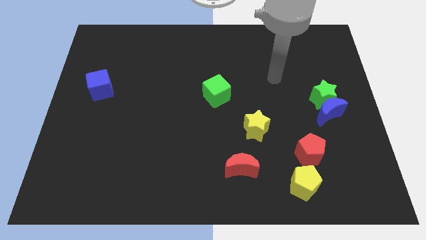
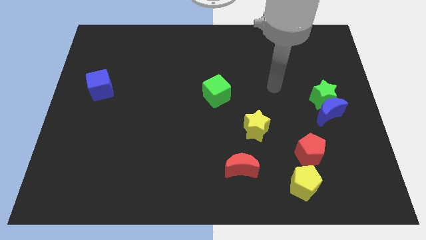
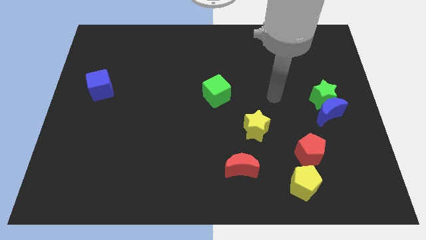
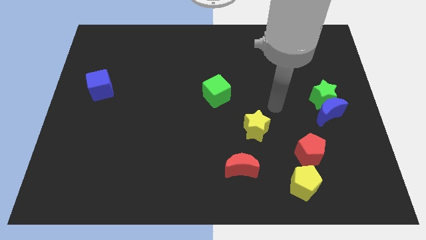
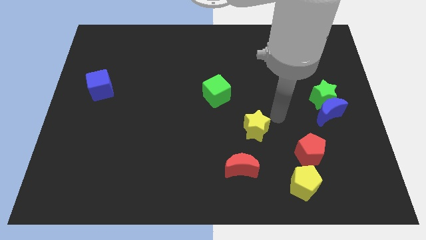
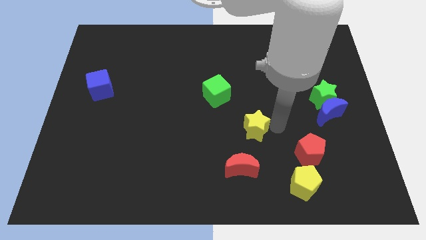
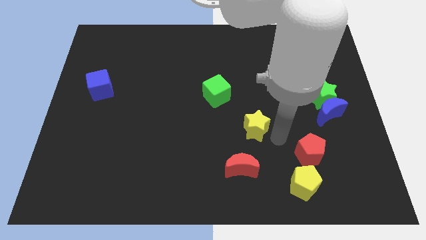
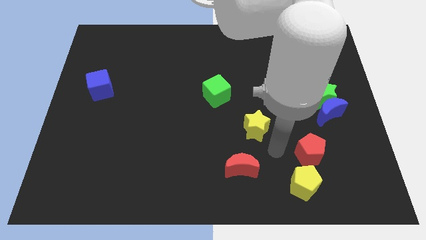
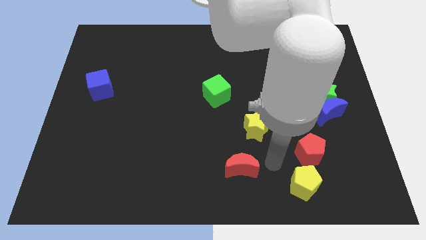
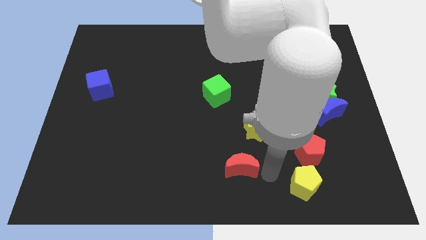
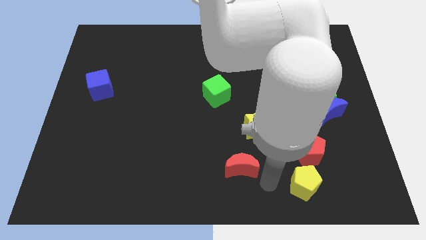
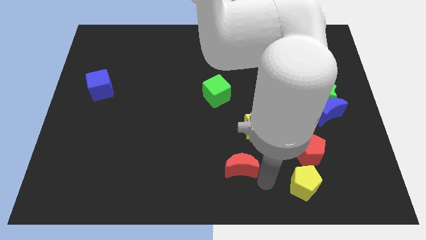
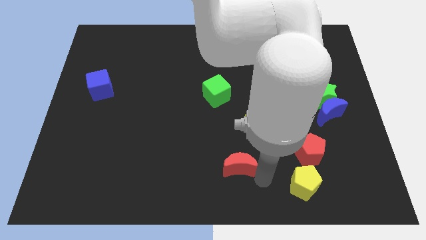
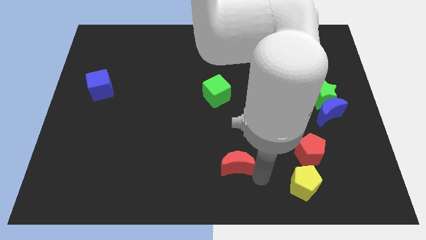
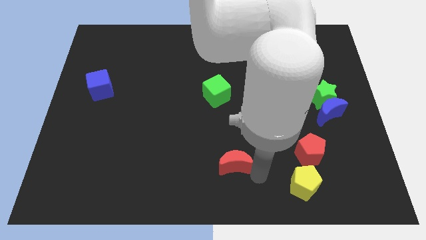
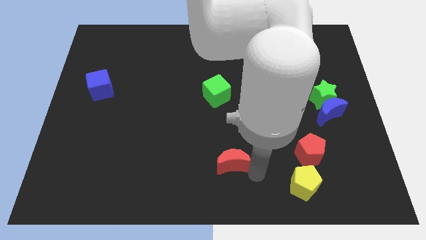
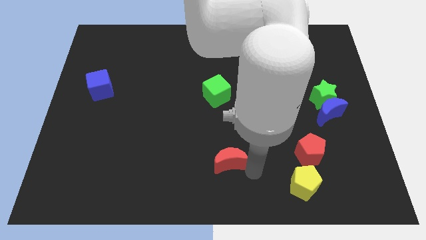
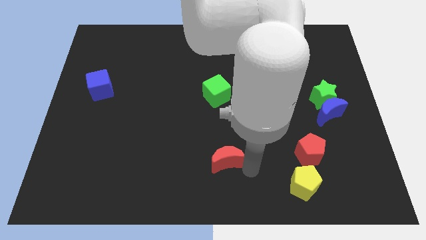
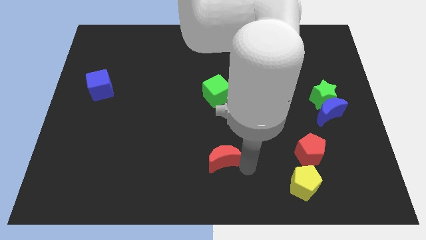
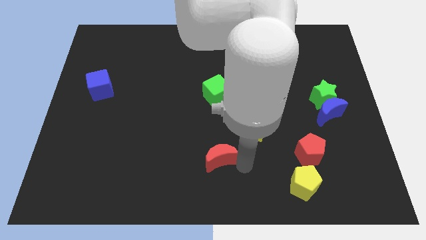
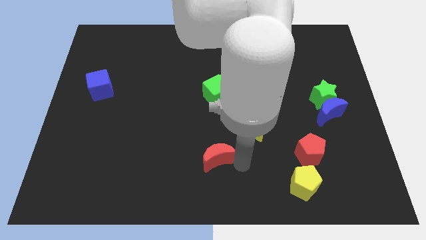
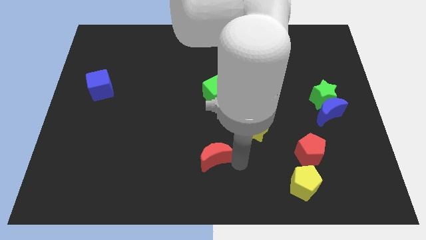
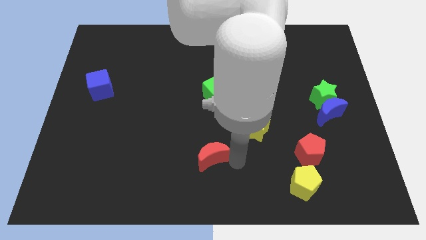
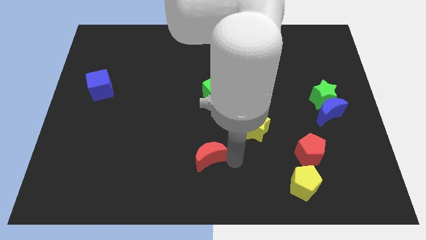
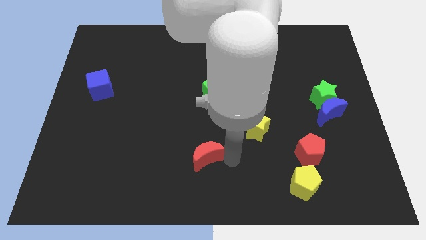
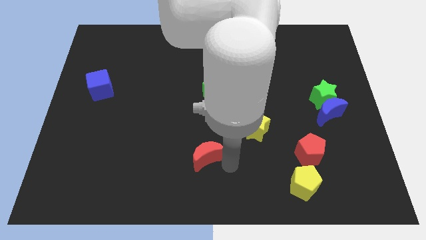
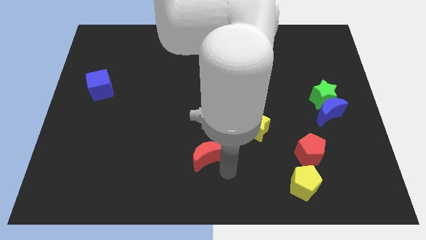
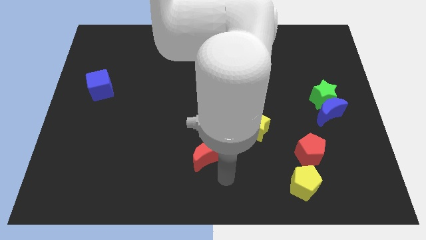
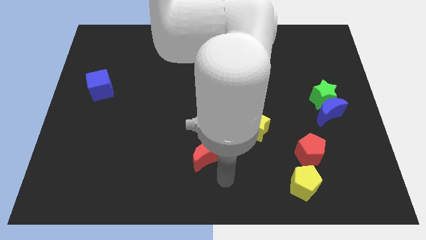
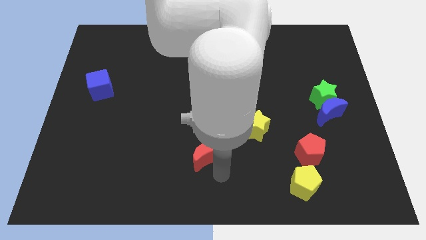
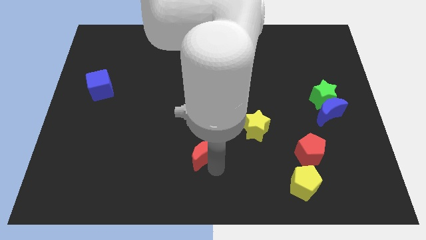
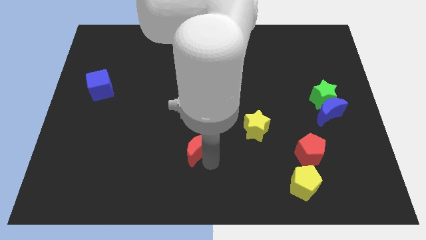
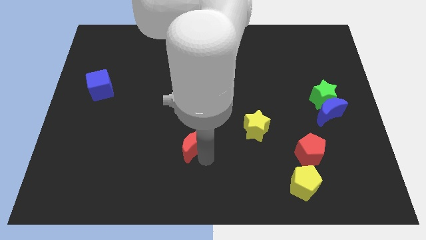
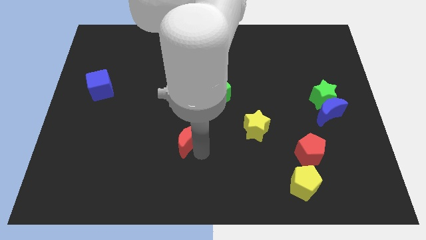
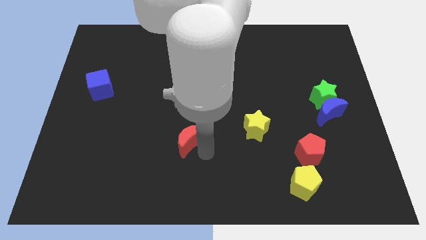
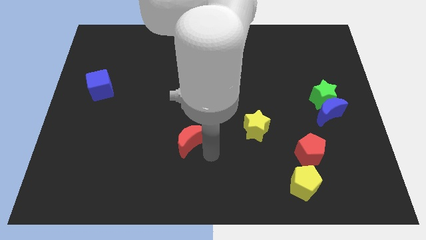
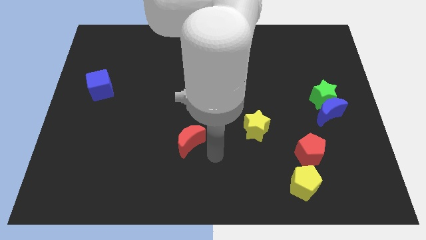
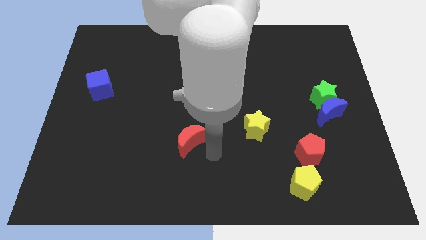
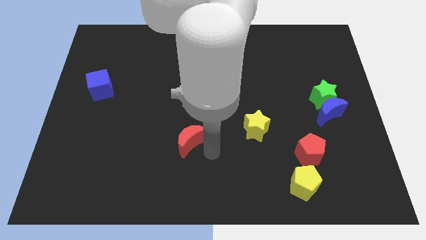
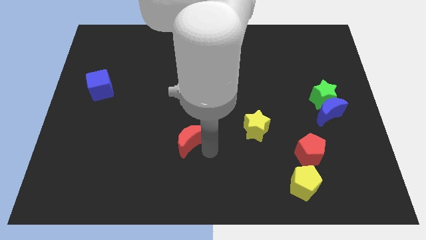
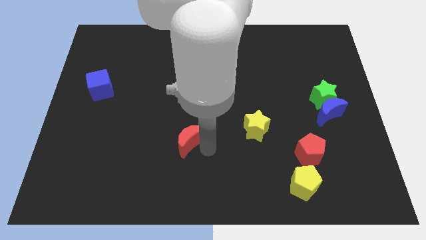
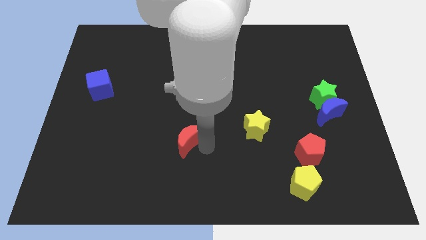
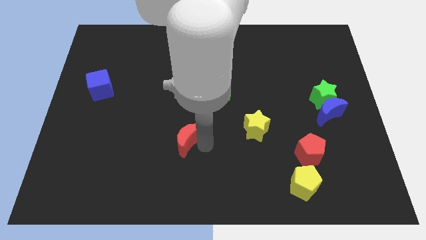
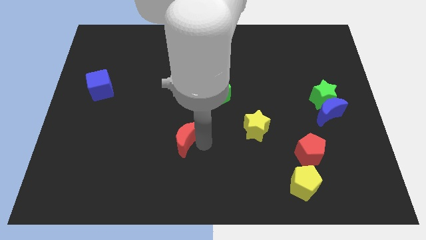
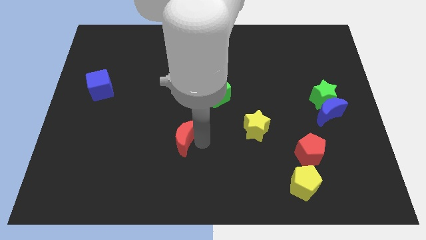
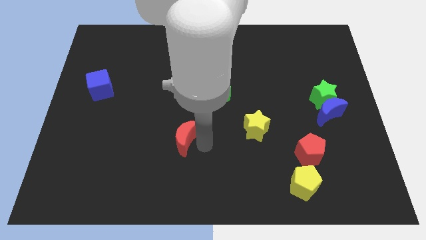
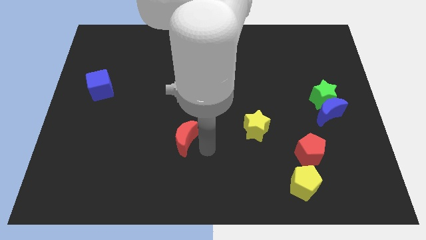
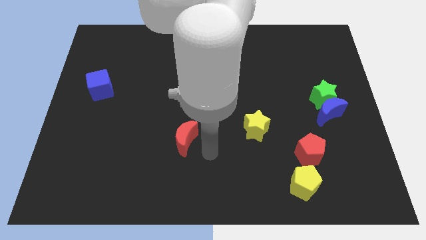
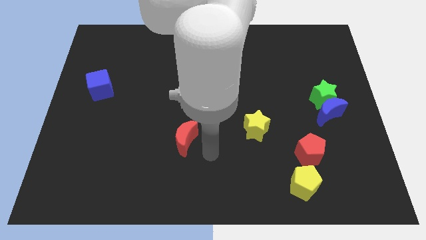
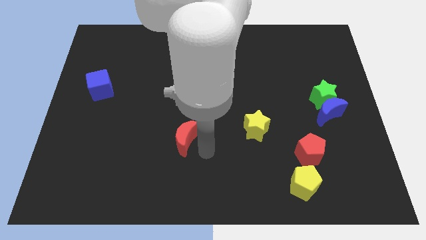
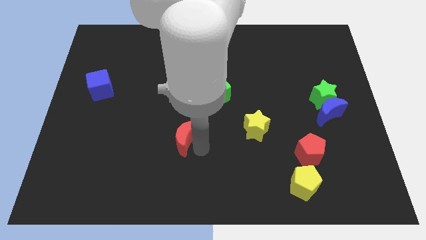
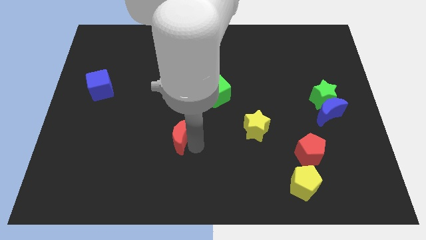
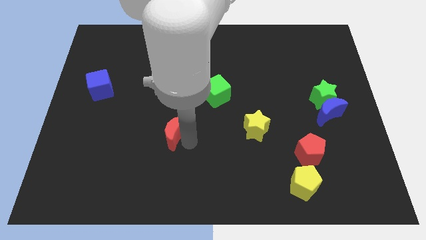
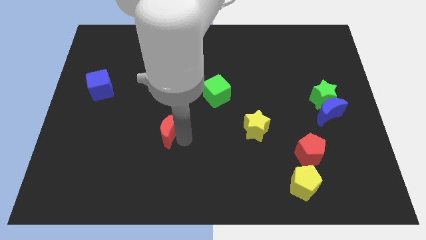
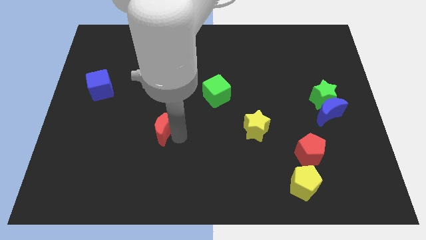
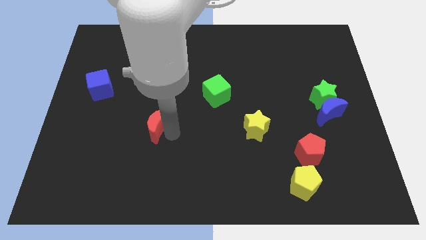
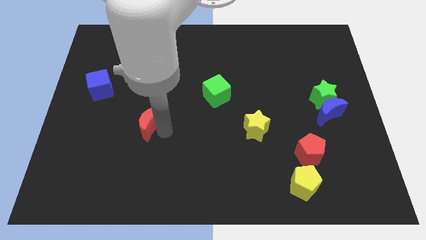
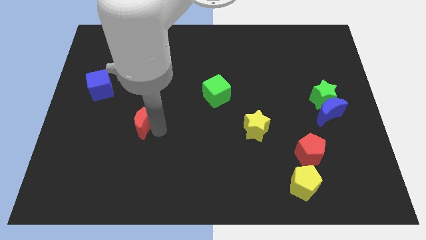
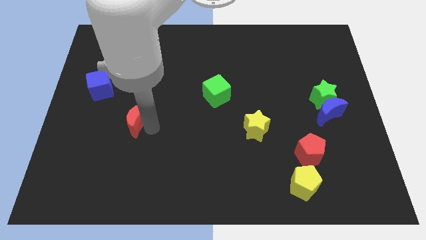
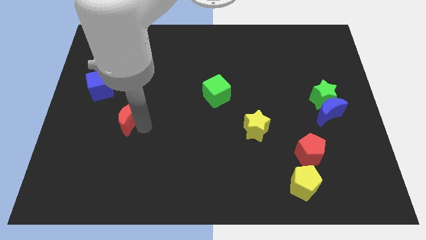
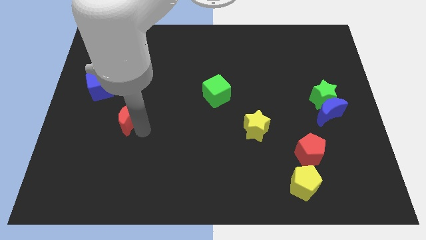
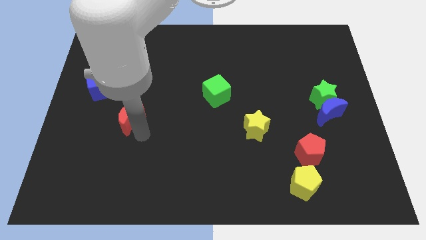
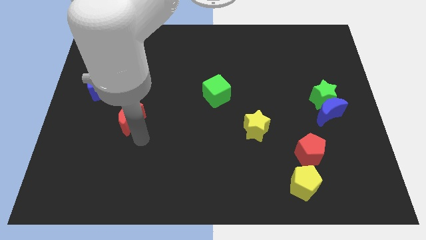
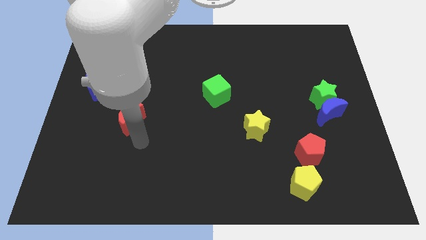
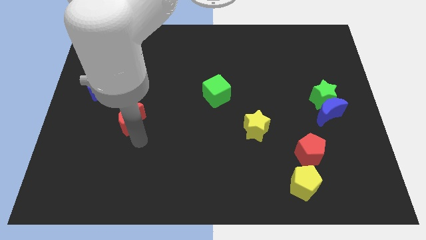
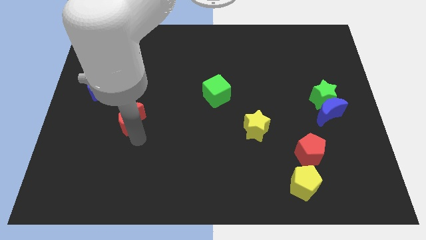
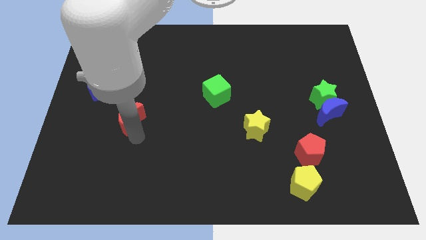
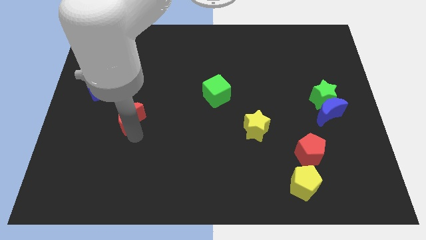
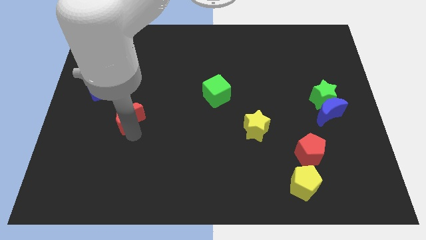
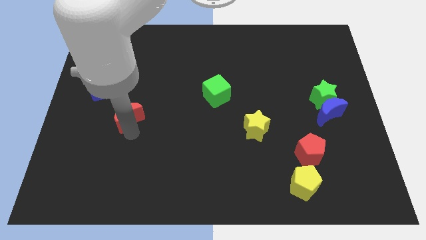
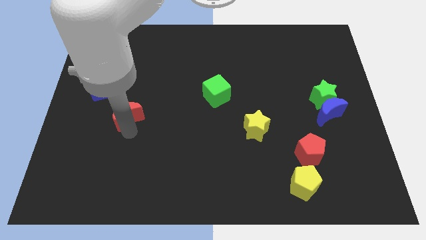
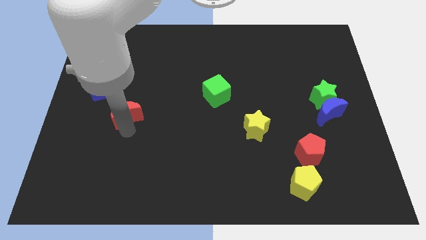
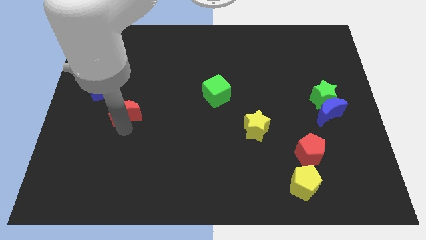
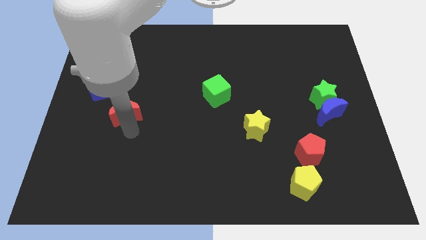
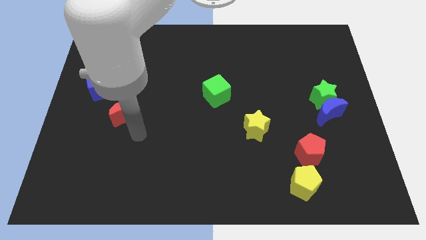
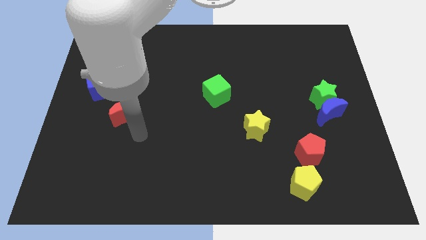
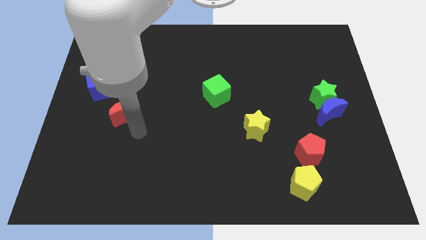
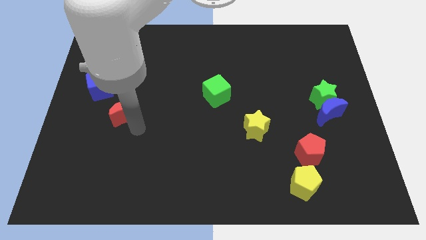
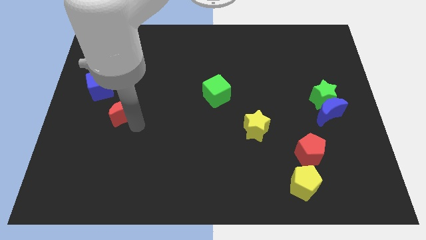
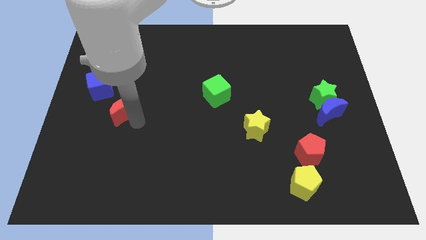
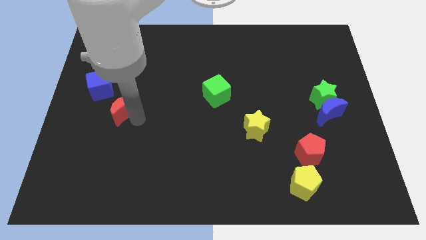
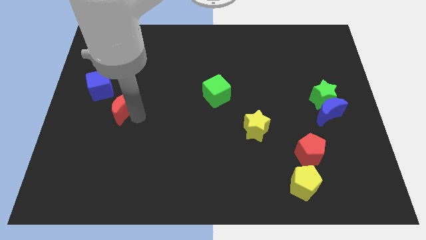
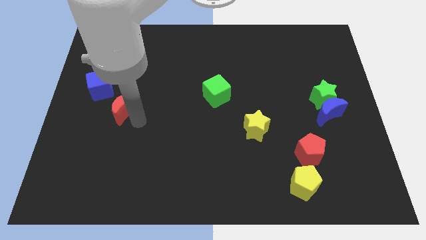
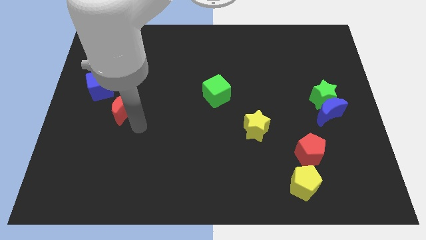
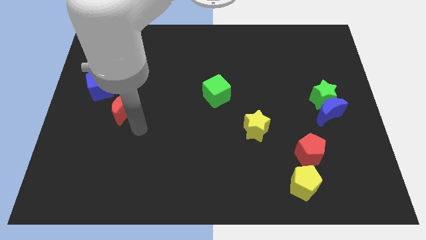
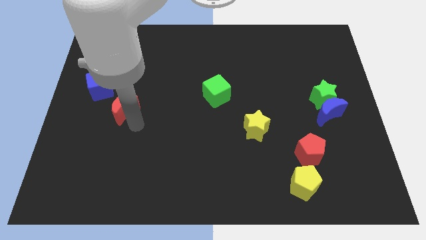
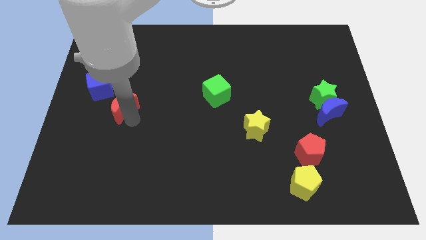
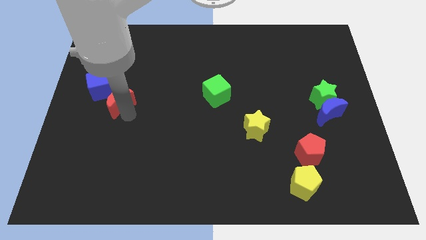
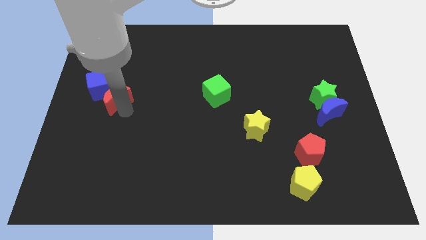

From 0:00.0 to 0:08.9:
push the red moon close to the blue cube
